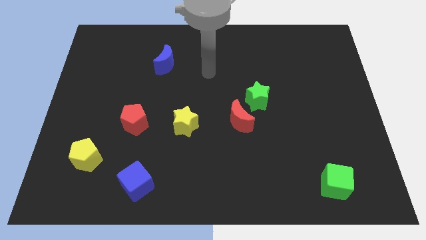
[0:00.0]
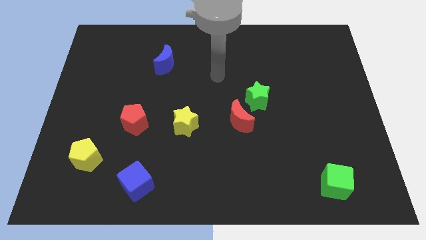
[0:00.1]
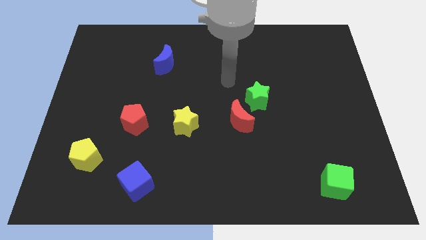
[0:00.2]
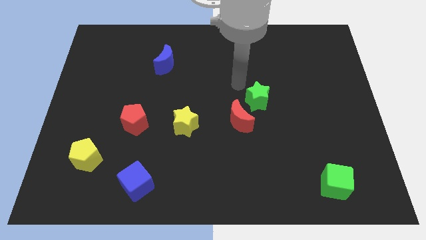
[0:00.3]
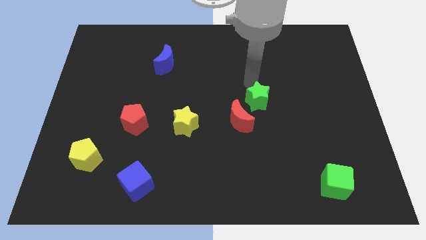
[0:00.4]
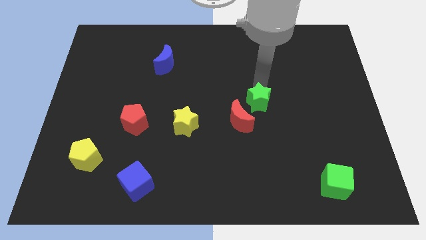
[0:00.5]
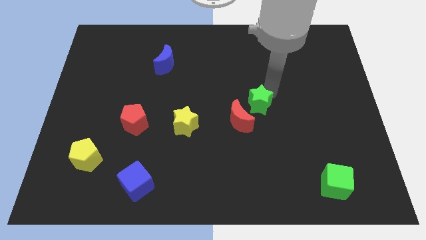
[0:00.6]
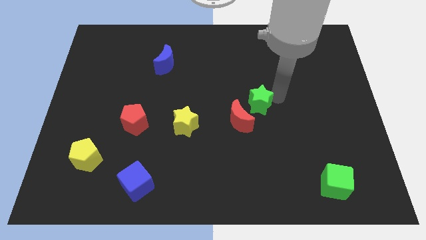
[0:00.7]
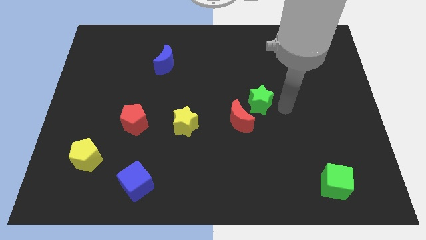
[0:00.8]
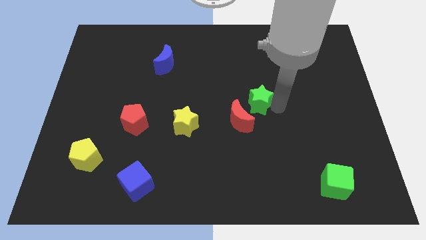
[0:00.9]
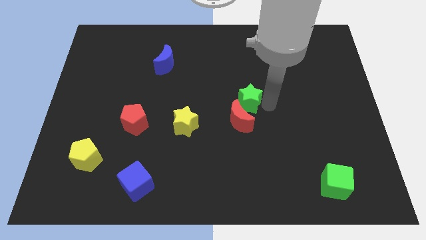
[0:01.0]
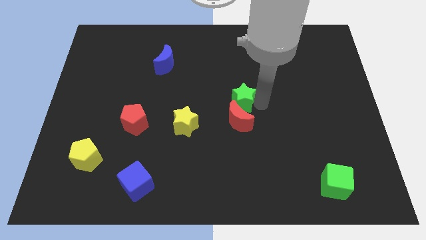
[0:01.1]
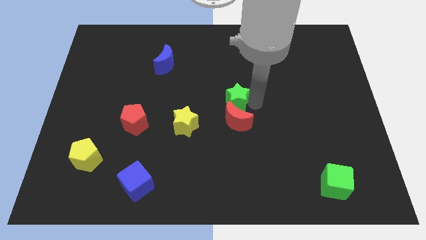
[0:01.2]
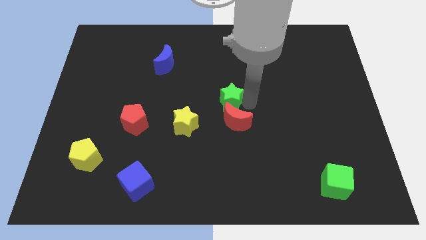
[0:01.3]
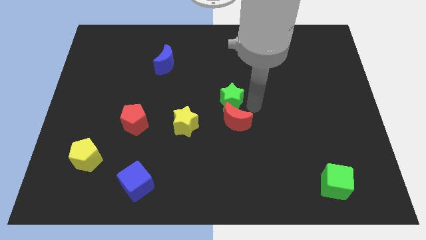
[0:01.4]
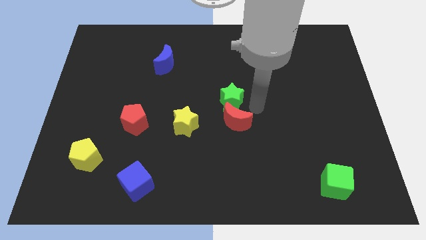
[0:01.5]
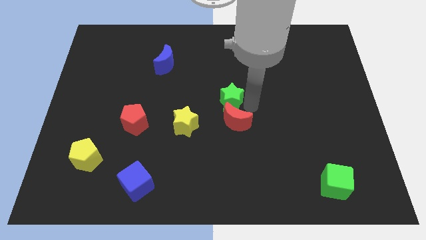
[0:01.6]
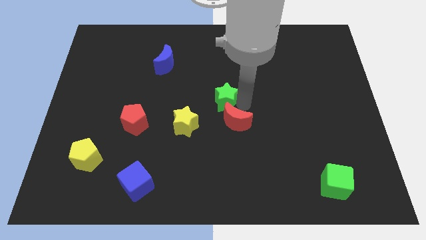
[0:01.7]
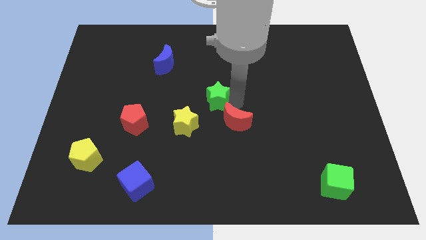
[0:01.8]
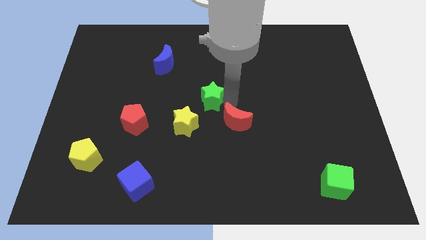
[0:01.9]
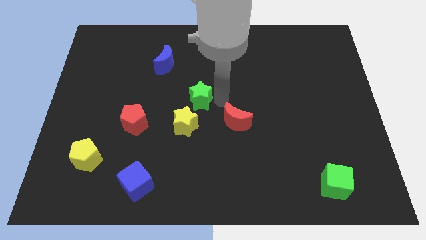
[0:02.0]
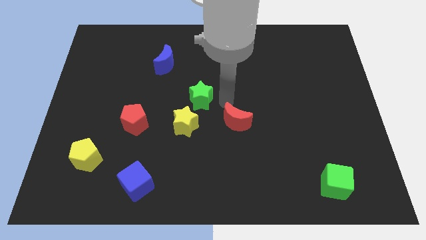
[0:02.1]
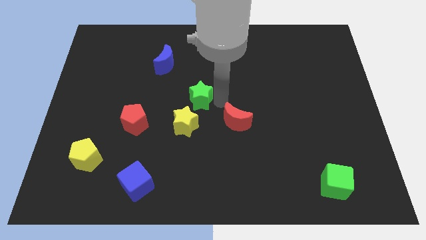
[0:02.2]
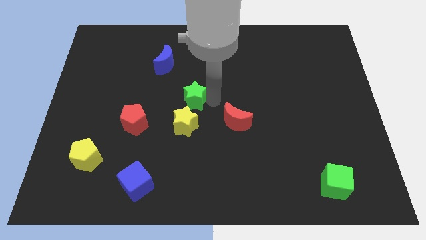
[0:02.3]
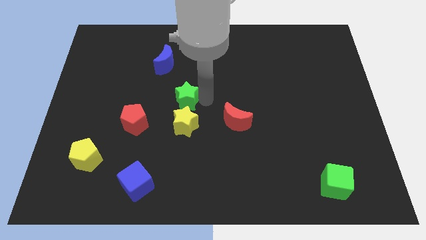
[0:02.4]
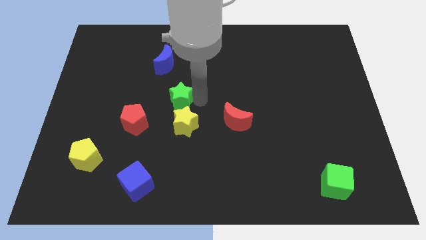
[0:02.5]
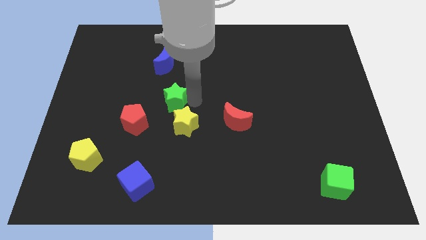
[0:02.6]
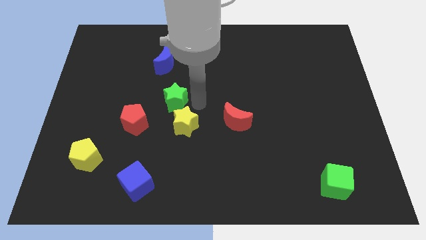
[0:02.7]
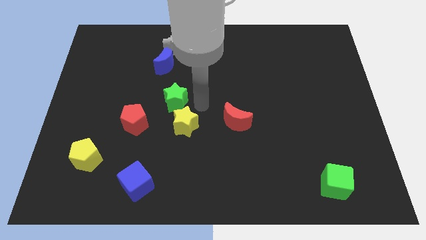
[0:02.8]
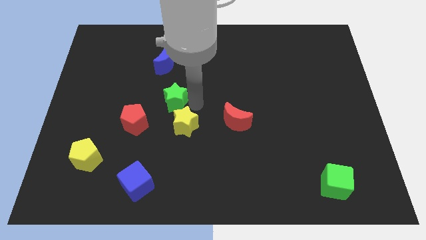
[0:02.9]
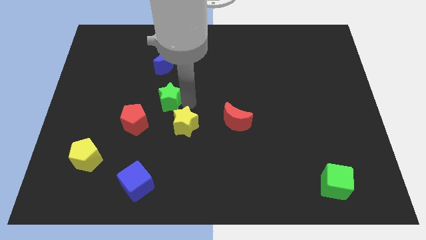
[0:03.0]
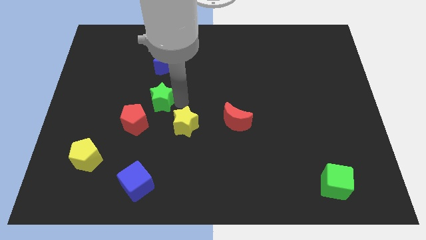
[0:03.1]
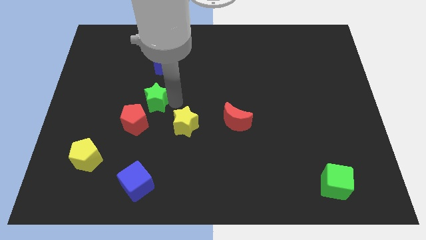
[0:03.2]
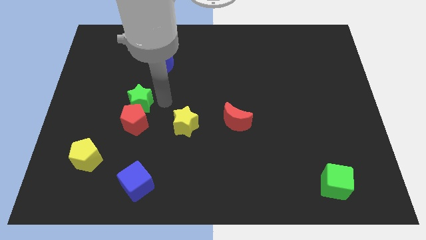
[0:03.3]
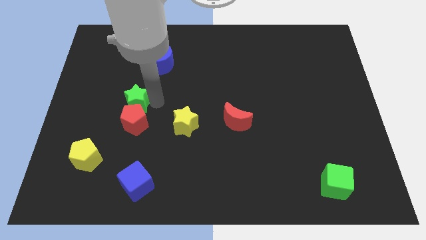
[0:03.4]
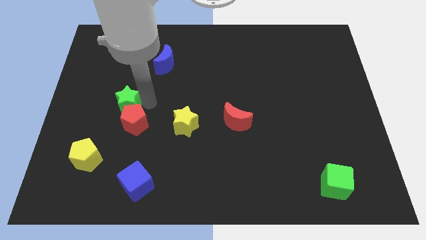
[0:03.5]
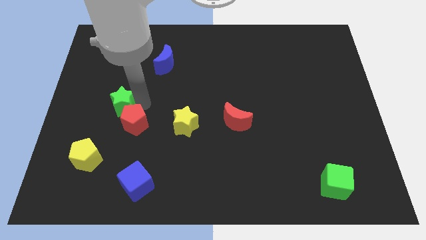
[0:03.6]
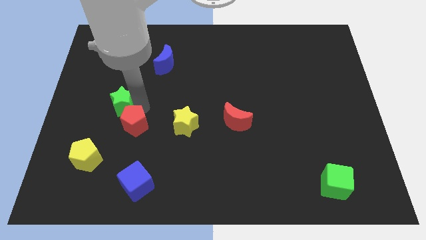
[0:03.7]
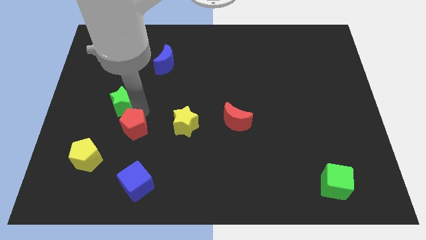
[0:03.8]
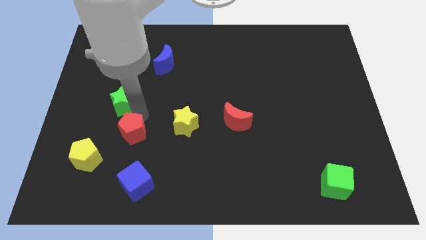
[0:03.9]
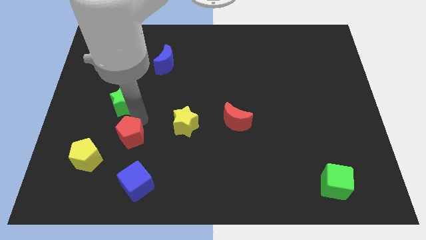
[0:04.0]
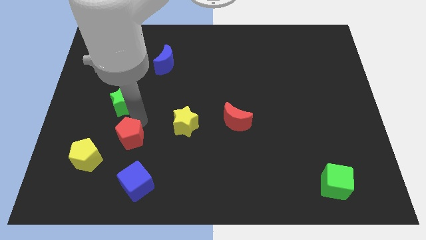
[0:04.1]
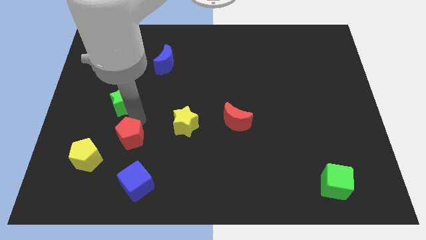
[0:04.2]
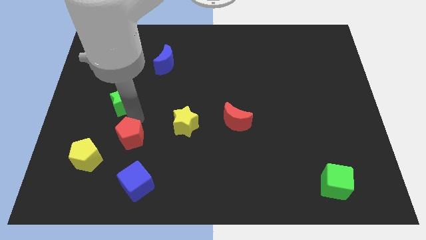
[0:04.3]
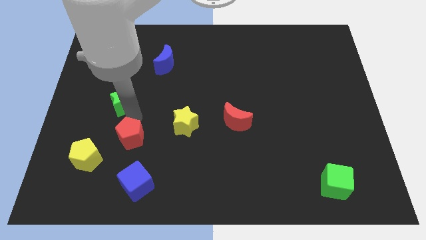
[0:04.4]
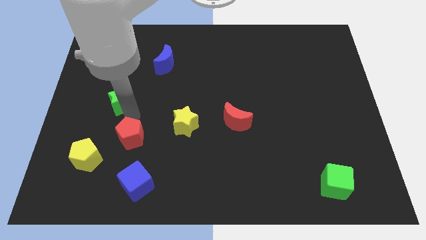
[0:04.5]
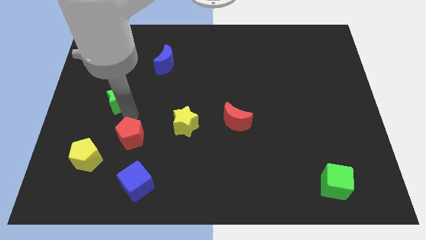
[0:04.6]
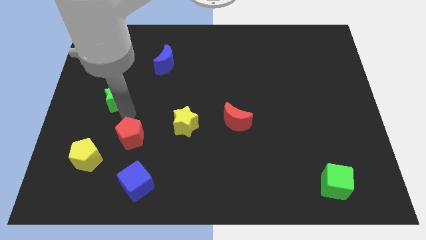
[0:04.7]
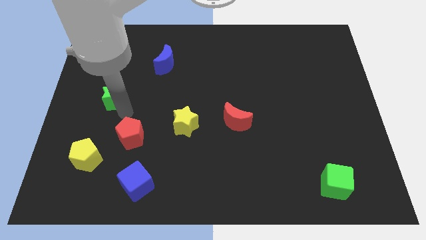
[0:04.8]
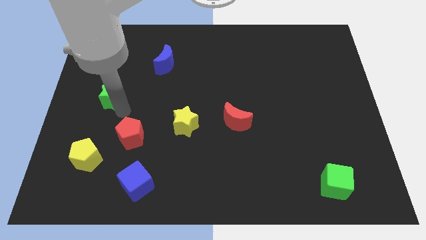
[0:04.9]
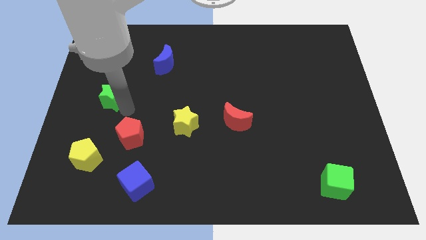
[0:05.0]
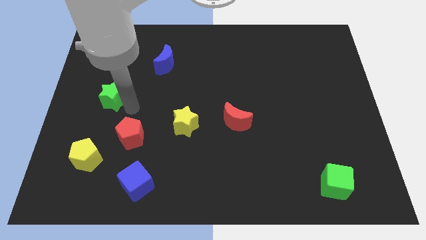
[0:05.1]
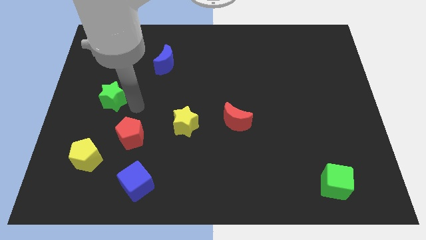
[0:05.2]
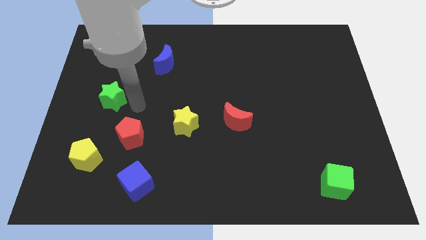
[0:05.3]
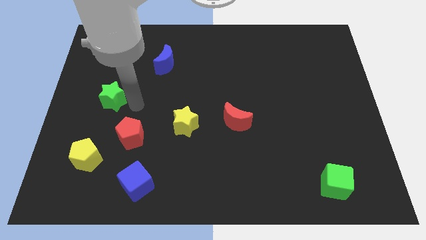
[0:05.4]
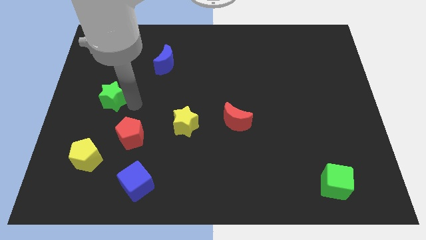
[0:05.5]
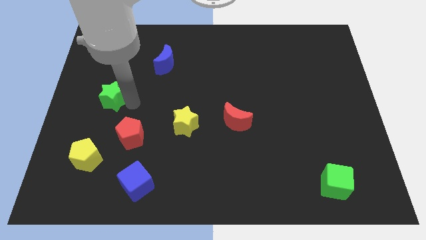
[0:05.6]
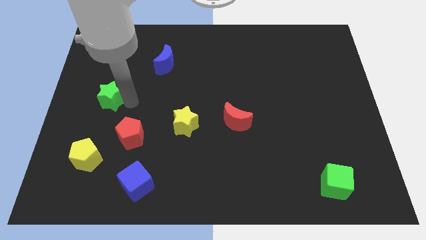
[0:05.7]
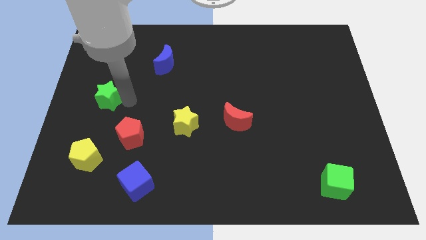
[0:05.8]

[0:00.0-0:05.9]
put the green star to the left side of the board
